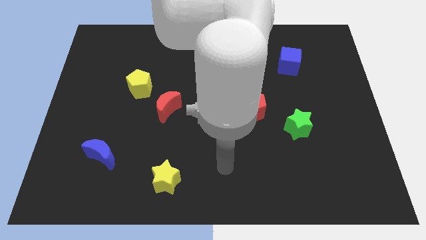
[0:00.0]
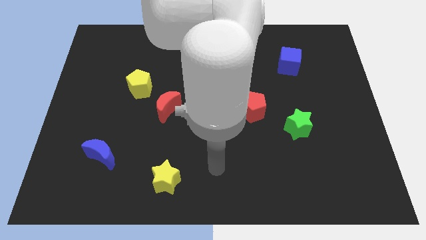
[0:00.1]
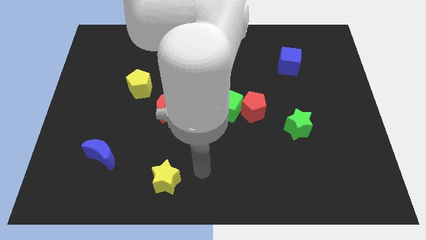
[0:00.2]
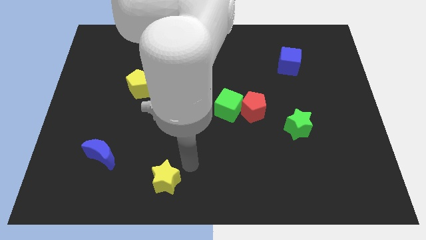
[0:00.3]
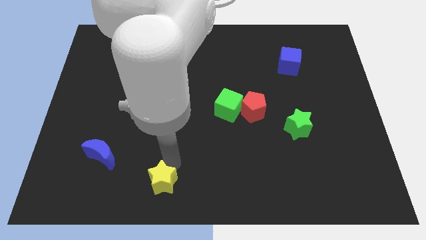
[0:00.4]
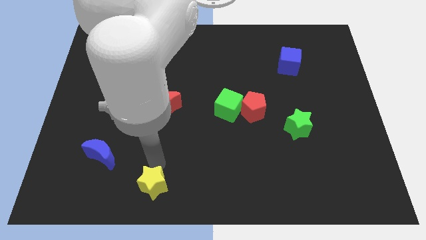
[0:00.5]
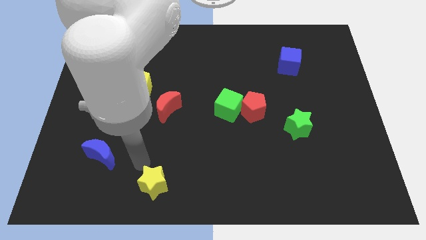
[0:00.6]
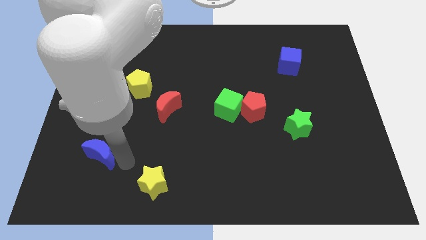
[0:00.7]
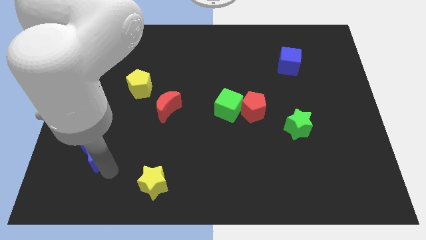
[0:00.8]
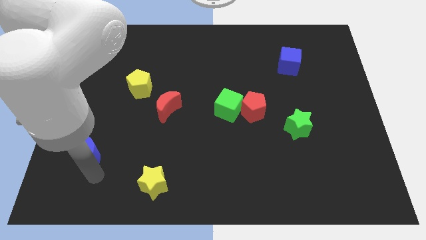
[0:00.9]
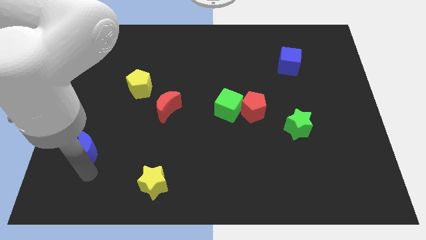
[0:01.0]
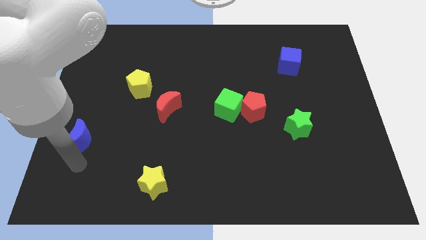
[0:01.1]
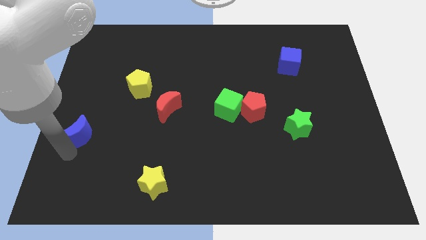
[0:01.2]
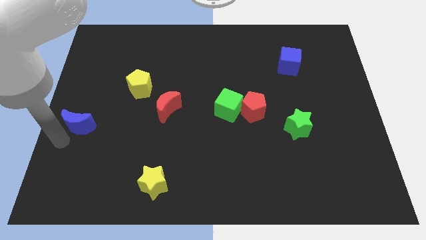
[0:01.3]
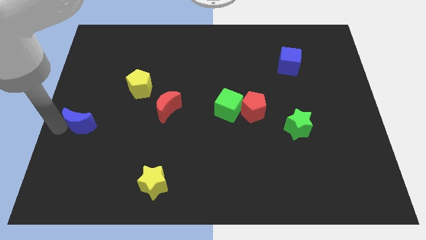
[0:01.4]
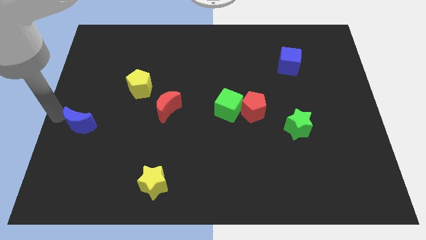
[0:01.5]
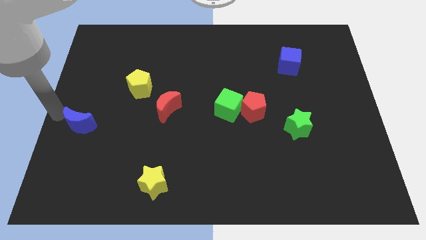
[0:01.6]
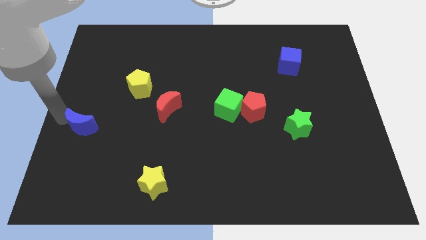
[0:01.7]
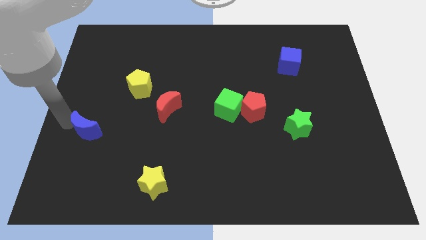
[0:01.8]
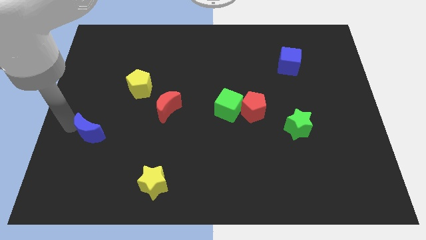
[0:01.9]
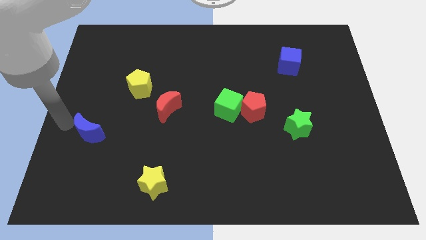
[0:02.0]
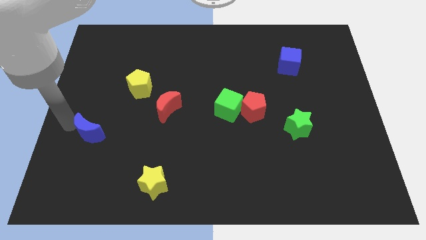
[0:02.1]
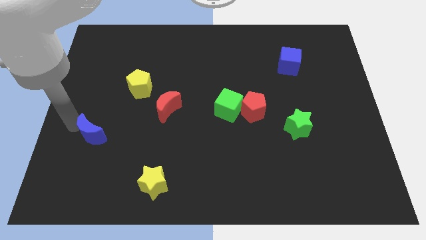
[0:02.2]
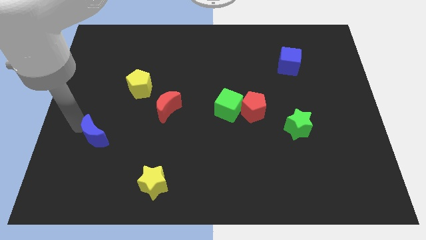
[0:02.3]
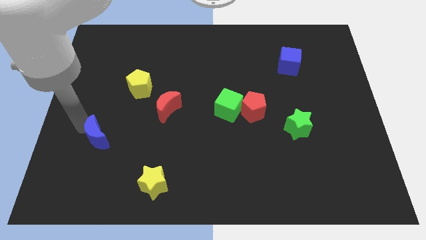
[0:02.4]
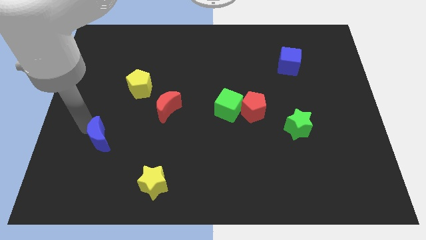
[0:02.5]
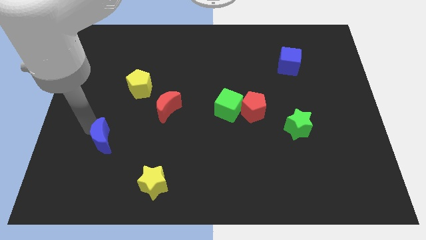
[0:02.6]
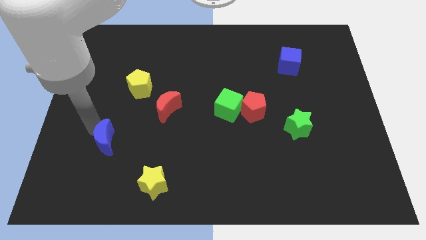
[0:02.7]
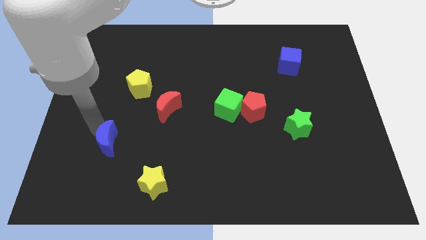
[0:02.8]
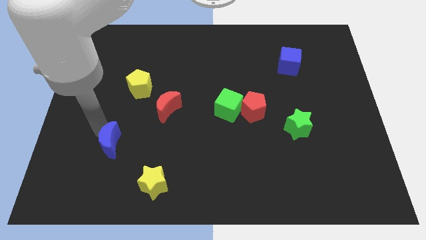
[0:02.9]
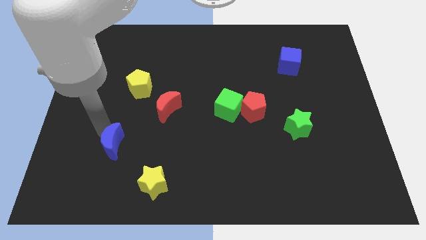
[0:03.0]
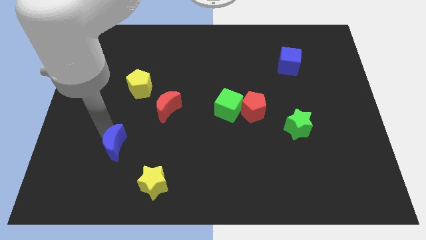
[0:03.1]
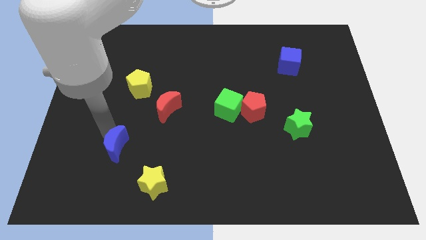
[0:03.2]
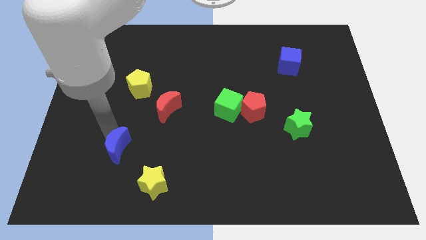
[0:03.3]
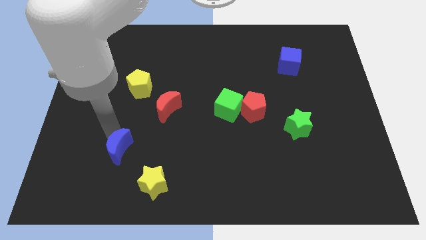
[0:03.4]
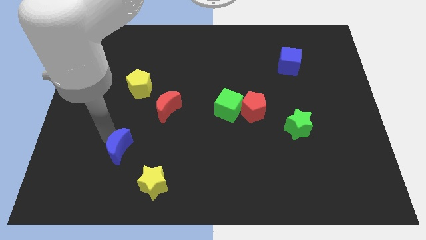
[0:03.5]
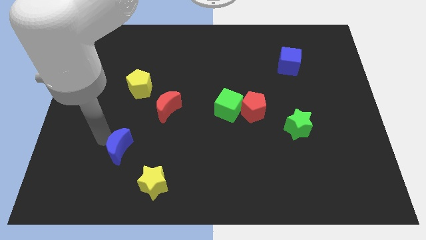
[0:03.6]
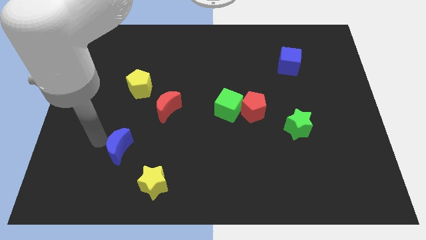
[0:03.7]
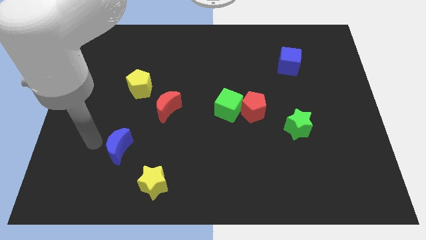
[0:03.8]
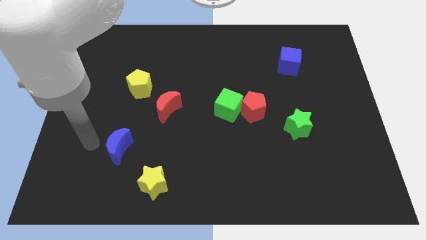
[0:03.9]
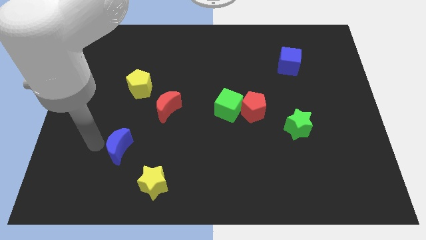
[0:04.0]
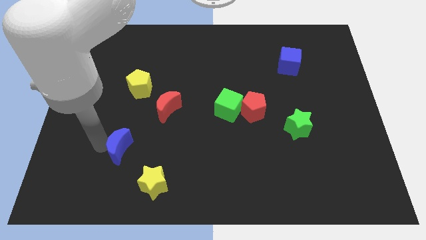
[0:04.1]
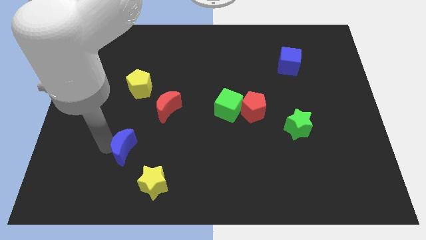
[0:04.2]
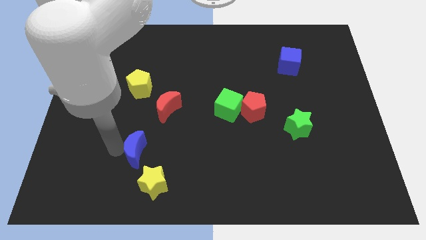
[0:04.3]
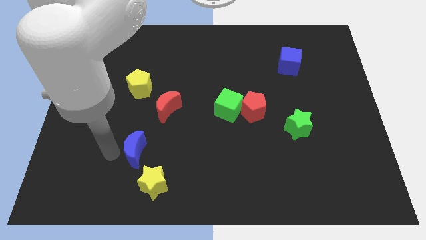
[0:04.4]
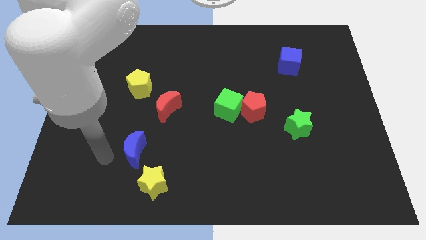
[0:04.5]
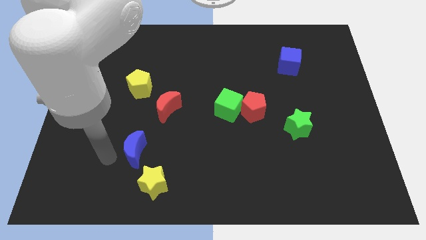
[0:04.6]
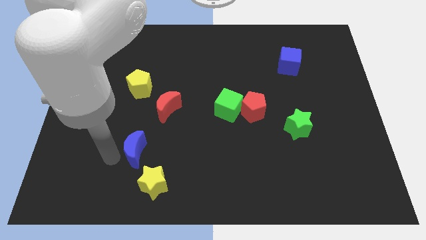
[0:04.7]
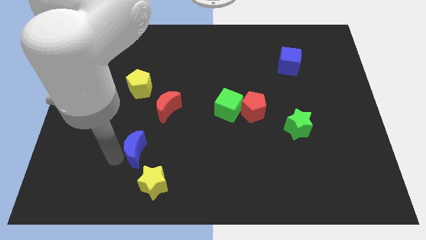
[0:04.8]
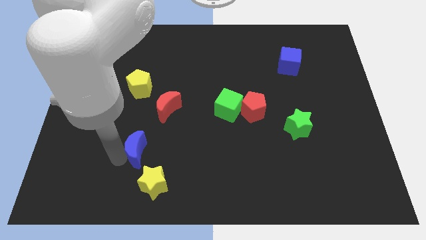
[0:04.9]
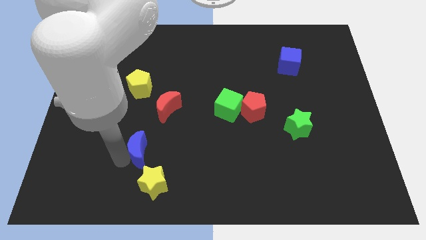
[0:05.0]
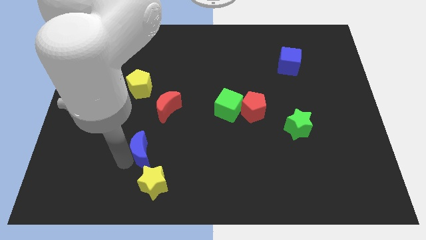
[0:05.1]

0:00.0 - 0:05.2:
push the blue moon to the bottom of the red moon

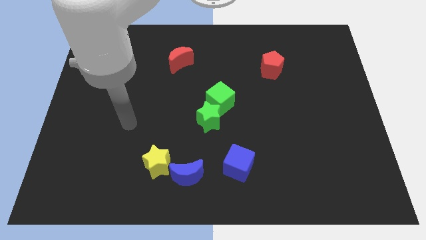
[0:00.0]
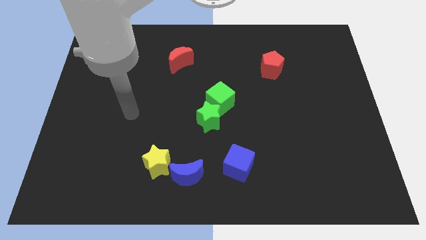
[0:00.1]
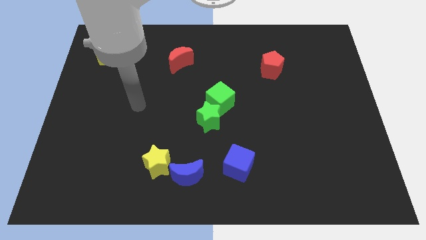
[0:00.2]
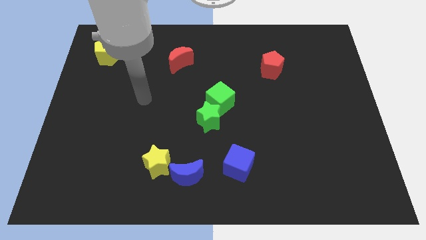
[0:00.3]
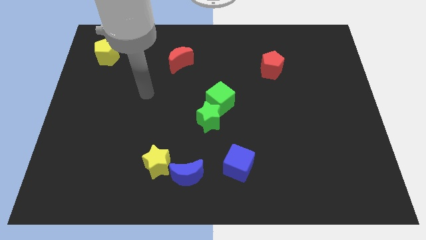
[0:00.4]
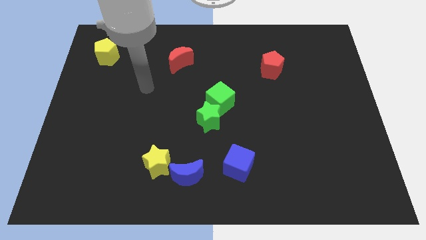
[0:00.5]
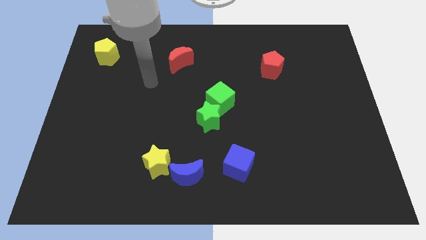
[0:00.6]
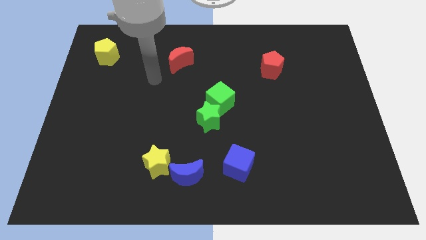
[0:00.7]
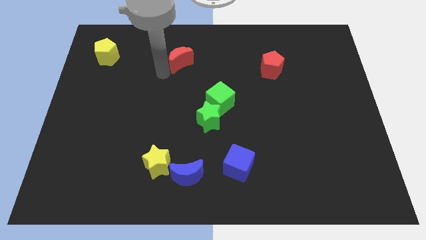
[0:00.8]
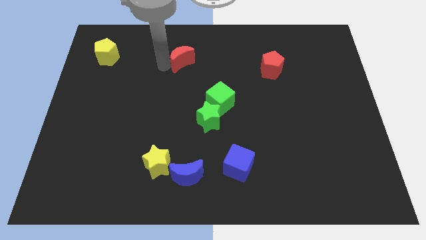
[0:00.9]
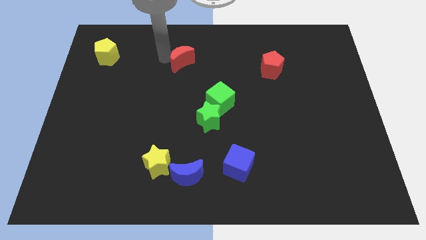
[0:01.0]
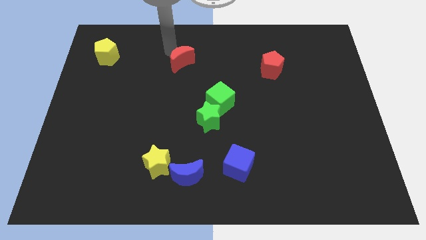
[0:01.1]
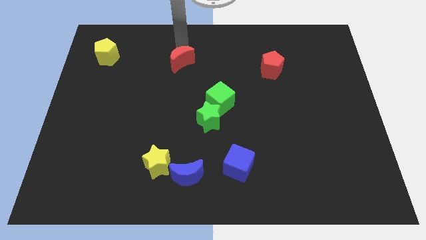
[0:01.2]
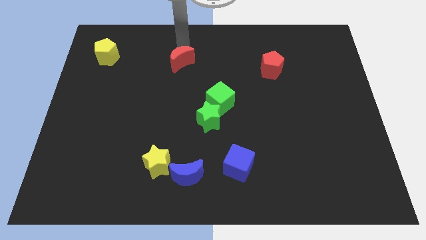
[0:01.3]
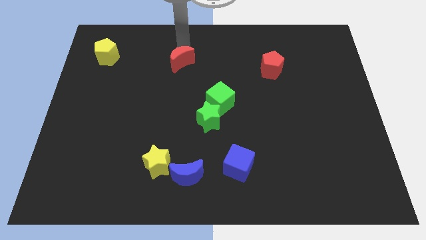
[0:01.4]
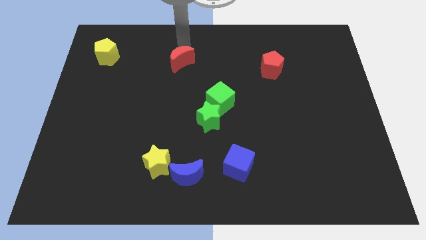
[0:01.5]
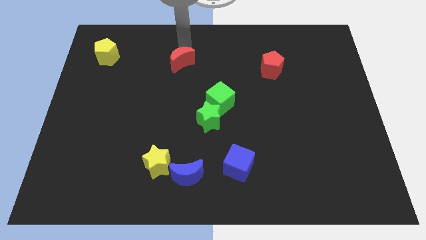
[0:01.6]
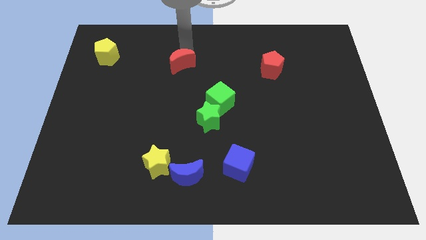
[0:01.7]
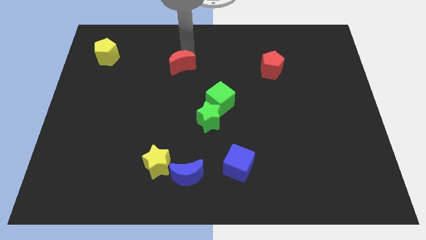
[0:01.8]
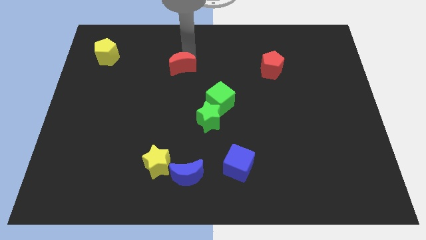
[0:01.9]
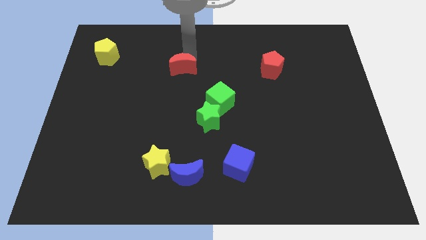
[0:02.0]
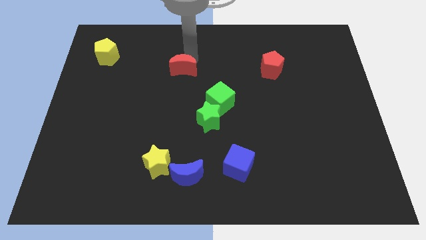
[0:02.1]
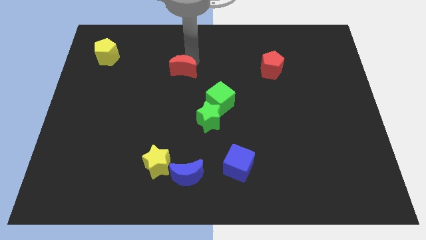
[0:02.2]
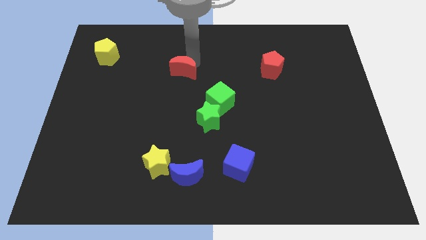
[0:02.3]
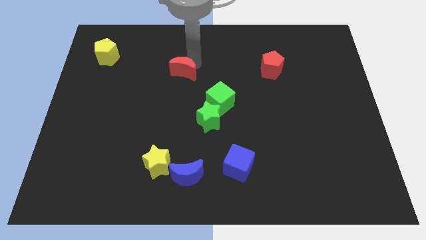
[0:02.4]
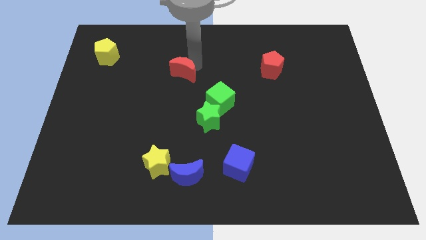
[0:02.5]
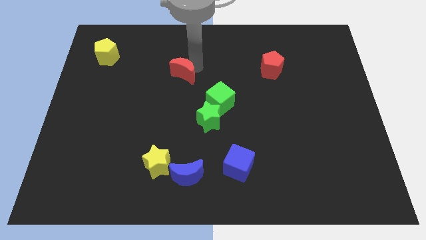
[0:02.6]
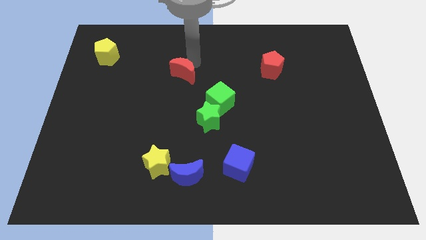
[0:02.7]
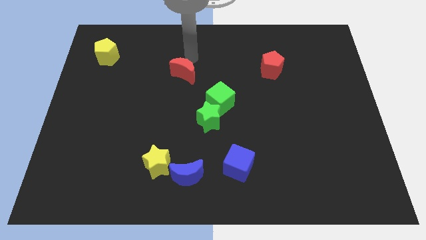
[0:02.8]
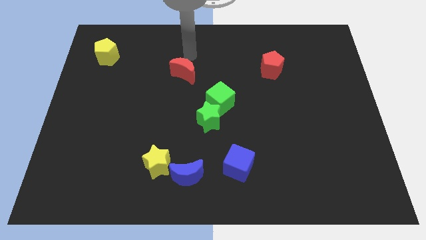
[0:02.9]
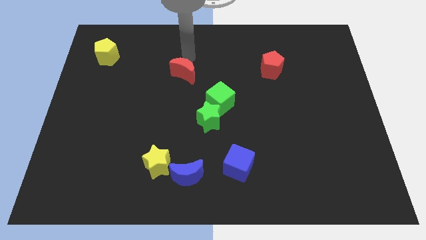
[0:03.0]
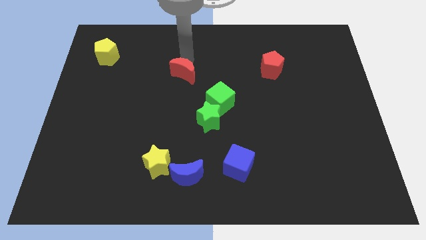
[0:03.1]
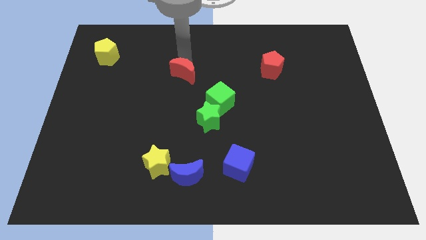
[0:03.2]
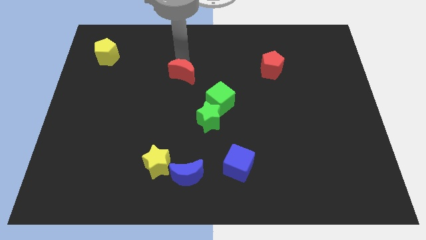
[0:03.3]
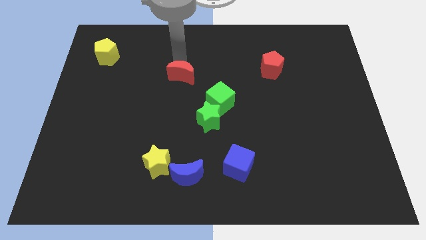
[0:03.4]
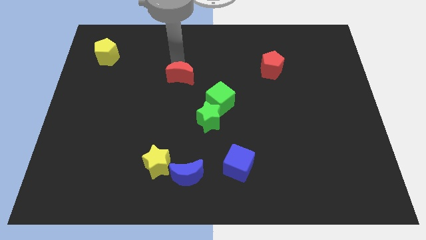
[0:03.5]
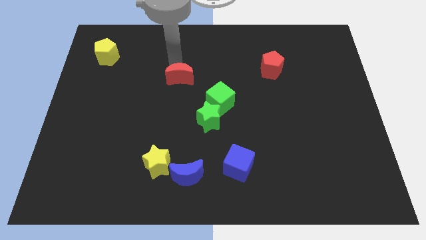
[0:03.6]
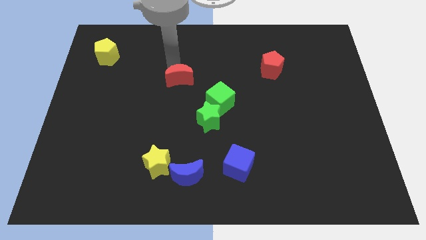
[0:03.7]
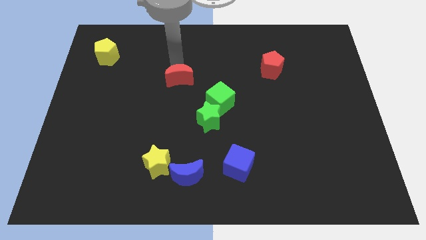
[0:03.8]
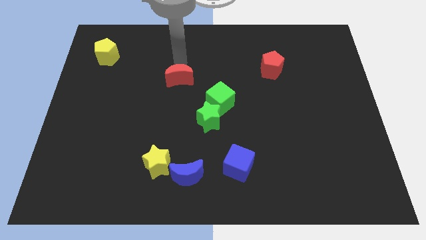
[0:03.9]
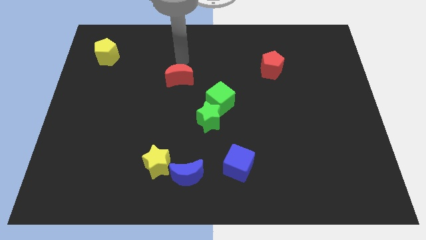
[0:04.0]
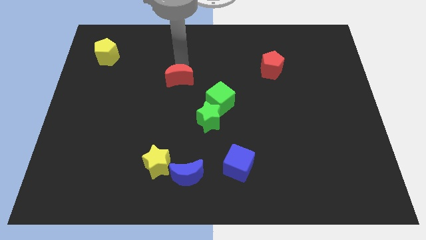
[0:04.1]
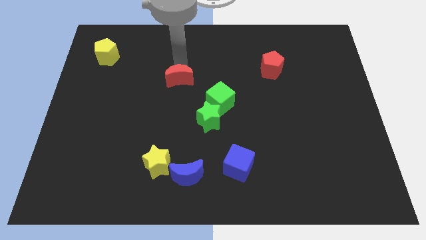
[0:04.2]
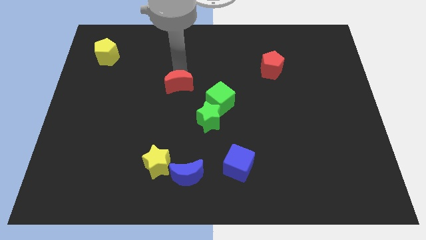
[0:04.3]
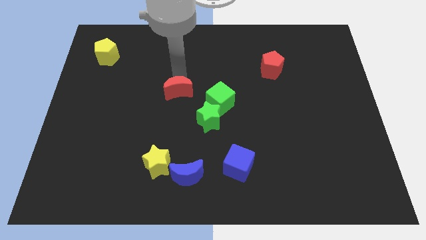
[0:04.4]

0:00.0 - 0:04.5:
push the red moon to the left of the green cube
